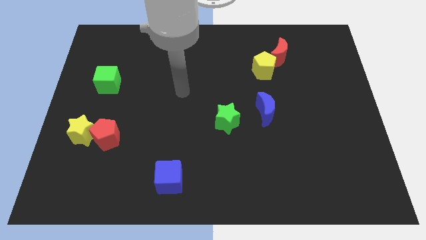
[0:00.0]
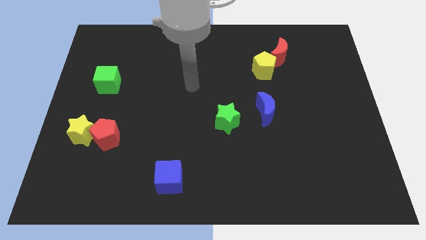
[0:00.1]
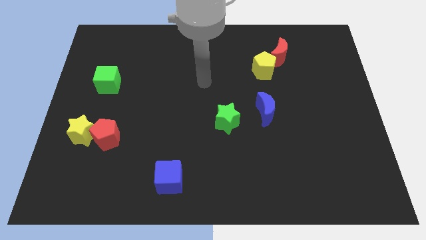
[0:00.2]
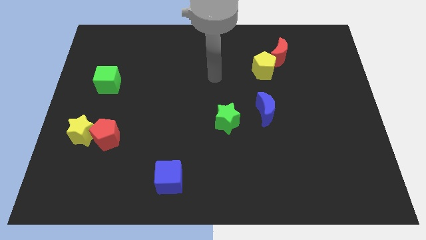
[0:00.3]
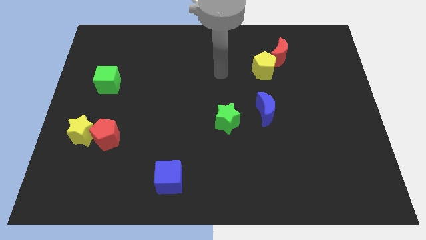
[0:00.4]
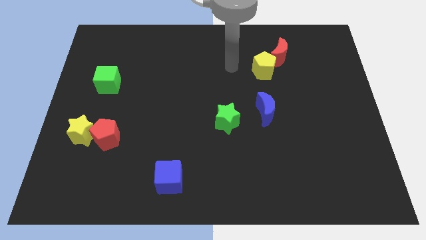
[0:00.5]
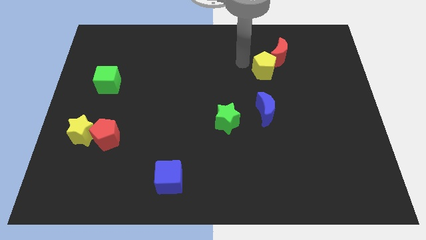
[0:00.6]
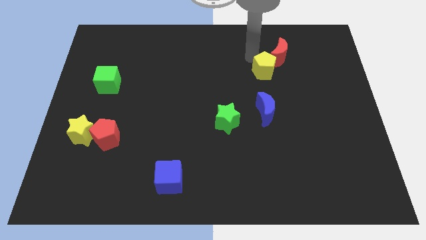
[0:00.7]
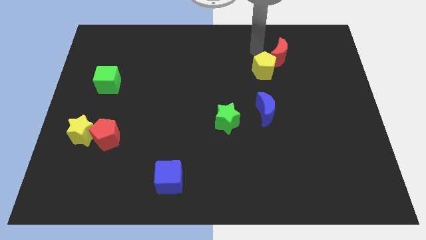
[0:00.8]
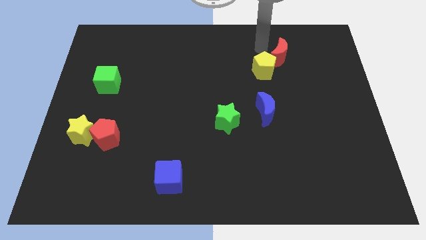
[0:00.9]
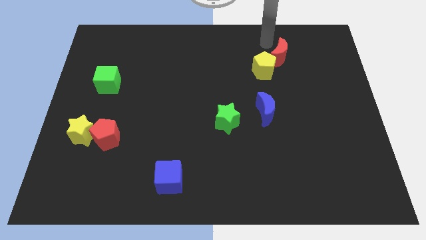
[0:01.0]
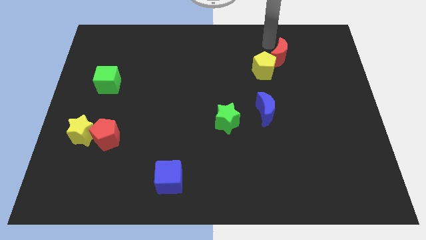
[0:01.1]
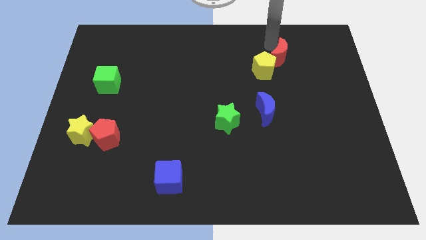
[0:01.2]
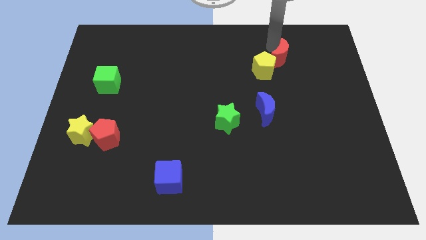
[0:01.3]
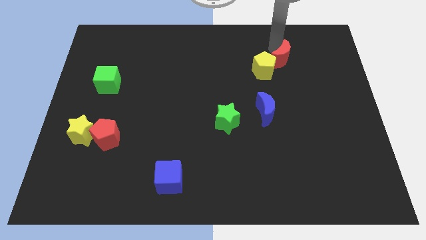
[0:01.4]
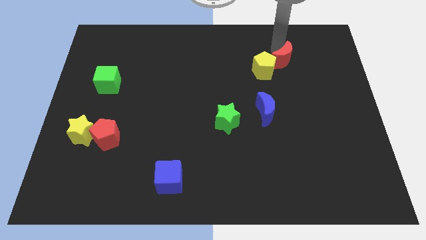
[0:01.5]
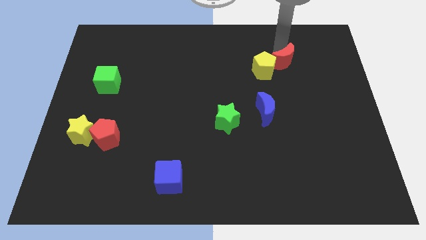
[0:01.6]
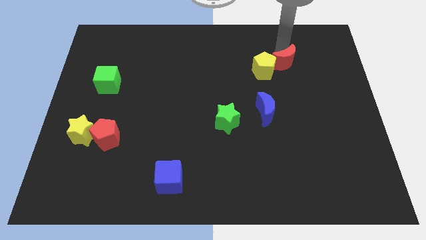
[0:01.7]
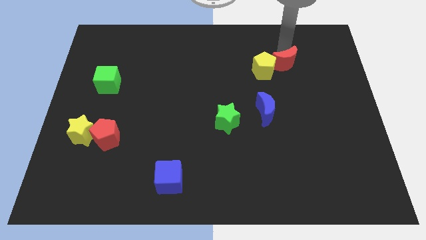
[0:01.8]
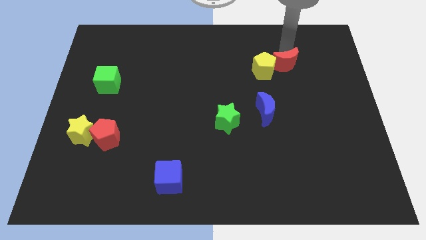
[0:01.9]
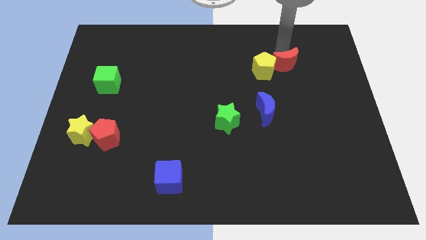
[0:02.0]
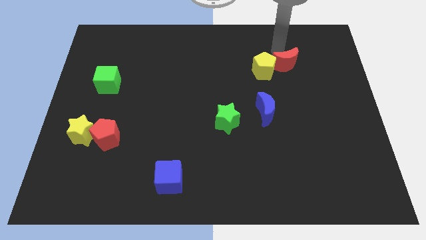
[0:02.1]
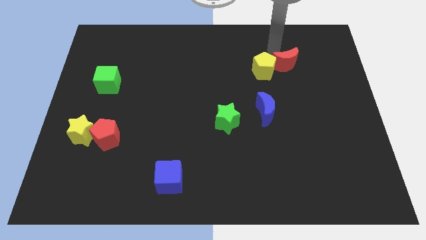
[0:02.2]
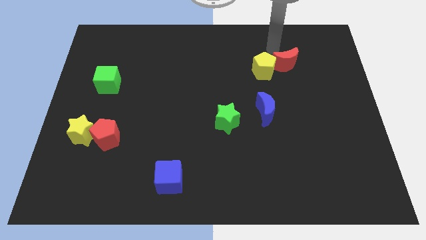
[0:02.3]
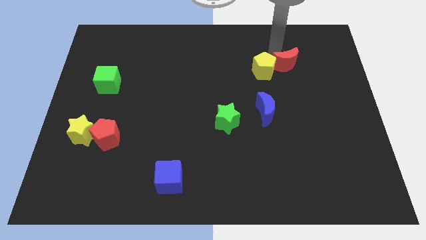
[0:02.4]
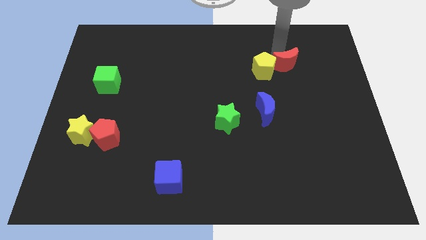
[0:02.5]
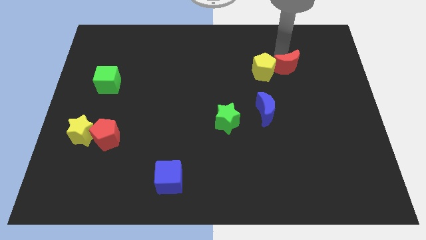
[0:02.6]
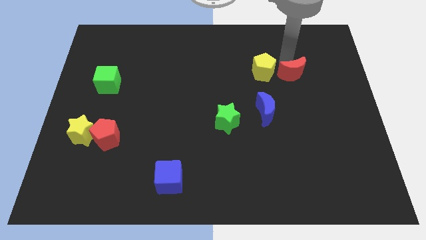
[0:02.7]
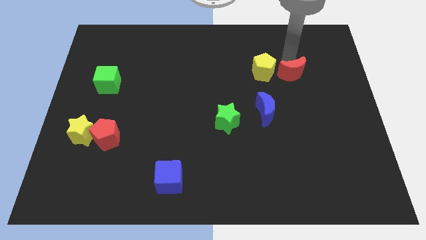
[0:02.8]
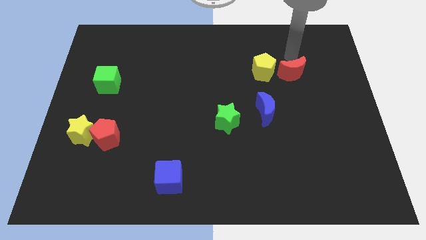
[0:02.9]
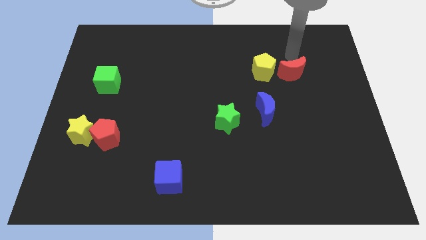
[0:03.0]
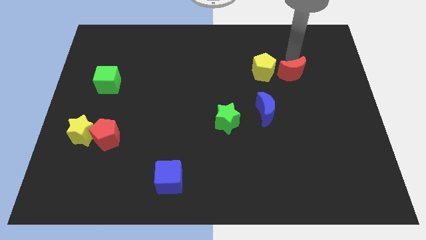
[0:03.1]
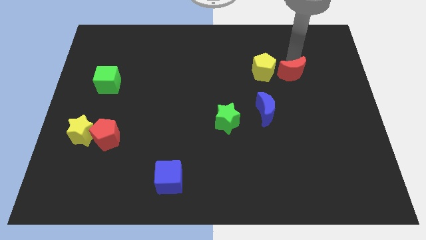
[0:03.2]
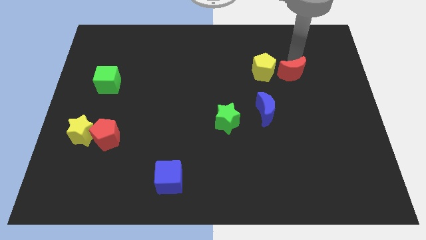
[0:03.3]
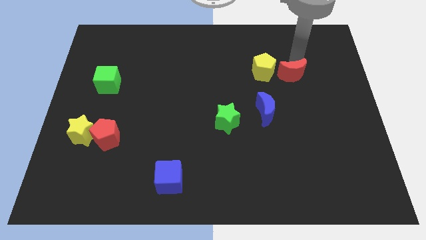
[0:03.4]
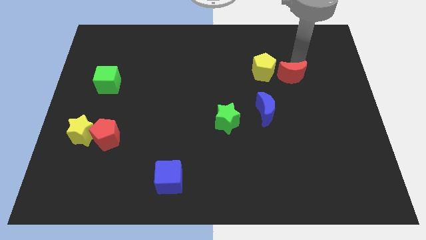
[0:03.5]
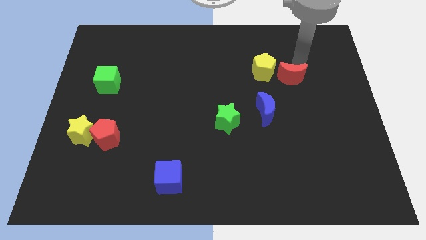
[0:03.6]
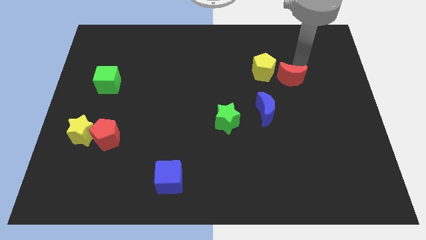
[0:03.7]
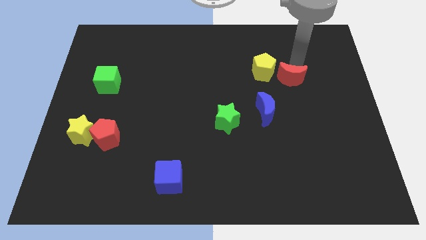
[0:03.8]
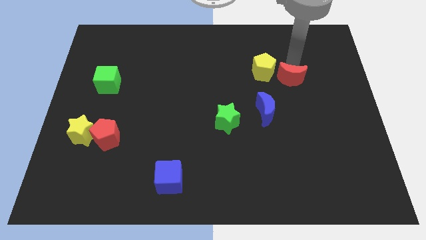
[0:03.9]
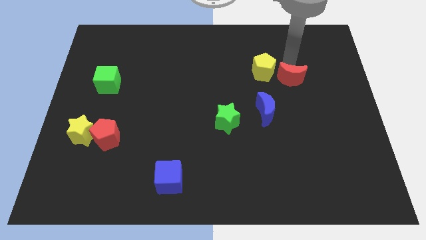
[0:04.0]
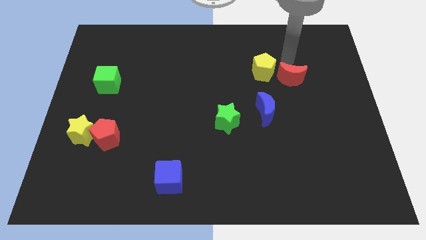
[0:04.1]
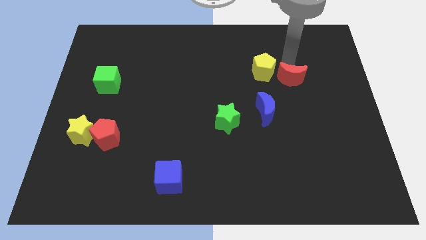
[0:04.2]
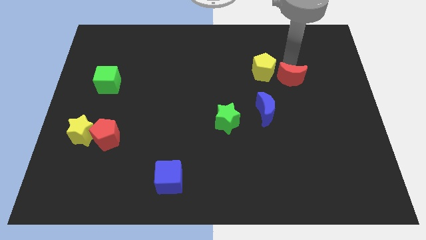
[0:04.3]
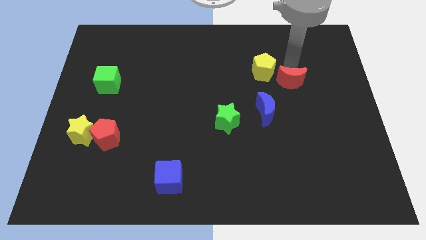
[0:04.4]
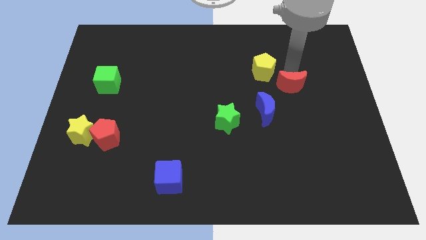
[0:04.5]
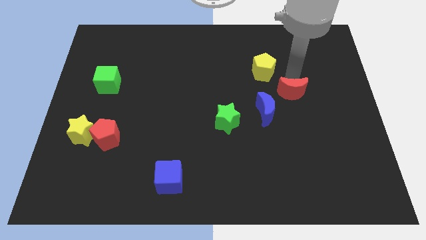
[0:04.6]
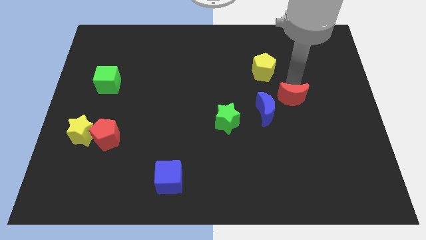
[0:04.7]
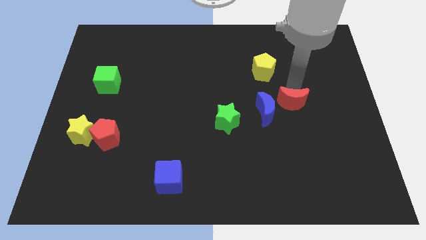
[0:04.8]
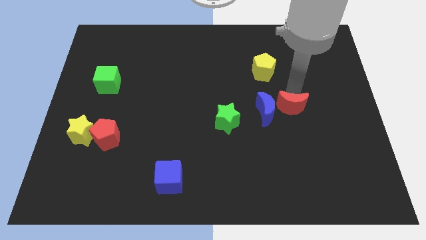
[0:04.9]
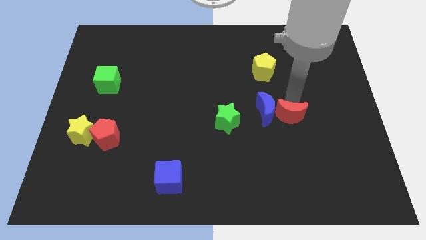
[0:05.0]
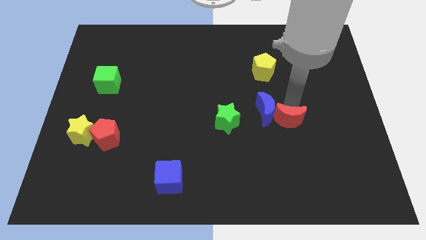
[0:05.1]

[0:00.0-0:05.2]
push the red moon downwards

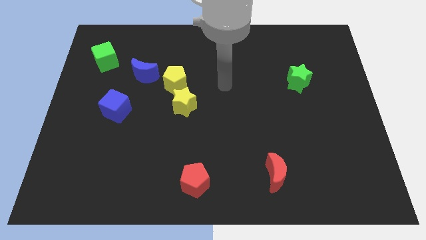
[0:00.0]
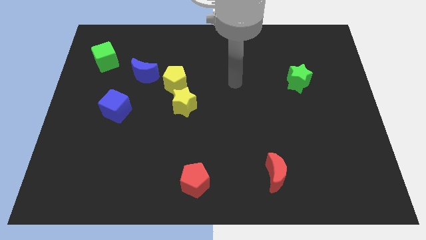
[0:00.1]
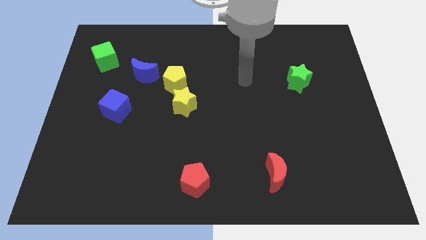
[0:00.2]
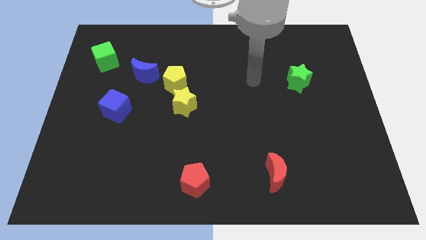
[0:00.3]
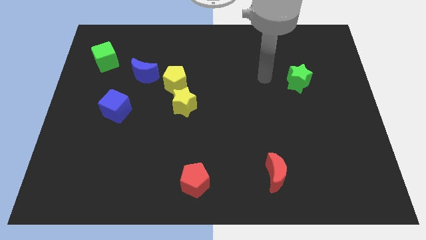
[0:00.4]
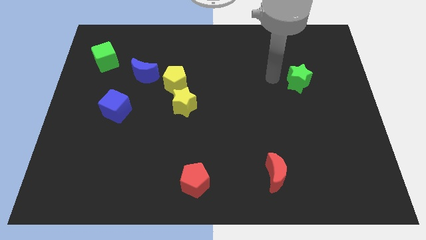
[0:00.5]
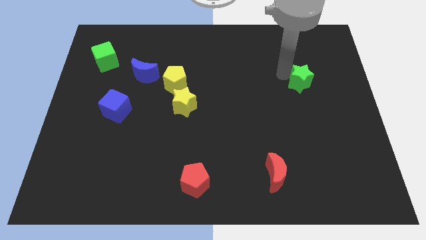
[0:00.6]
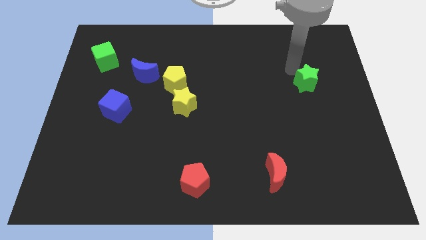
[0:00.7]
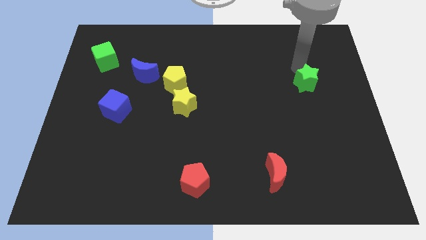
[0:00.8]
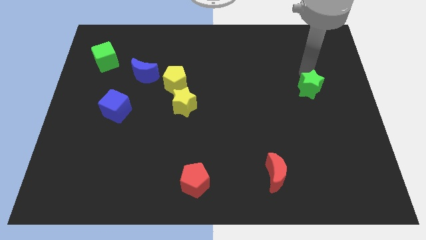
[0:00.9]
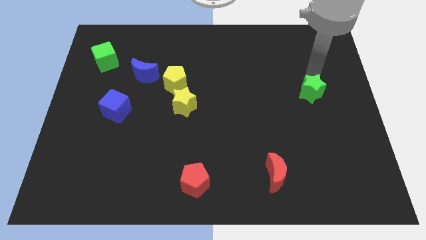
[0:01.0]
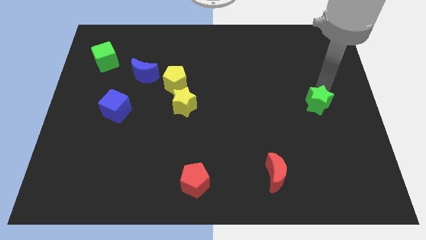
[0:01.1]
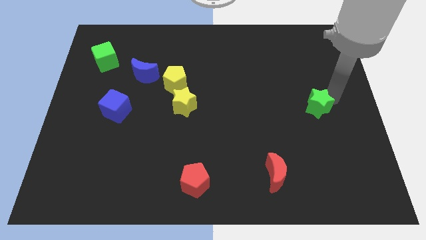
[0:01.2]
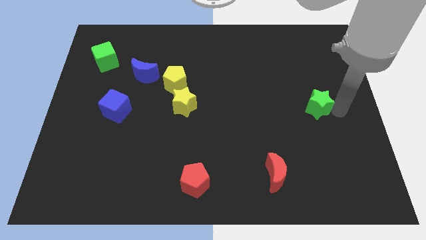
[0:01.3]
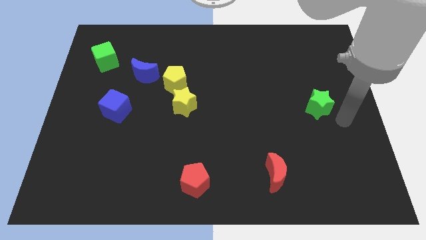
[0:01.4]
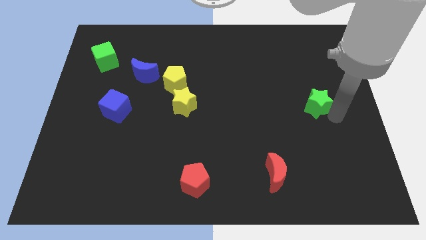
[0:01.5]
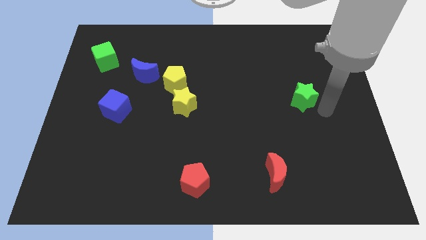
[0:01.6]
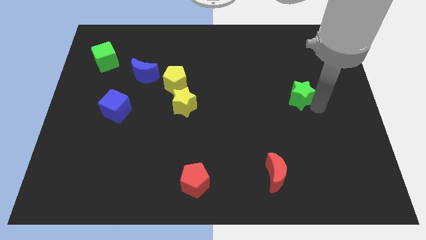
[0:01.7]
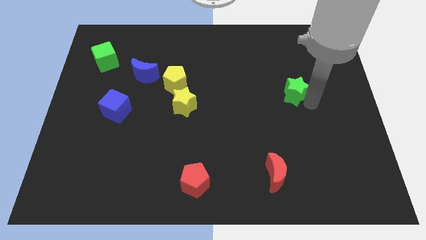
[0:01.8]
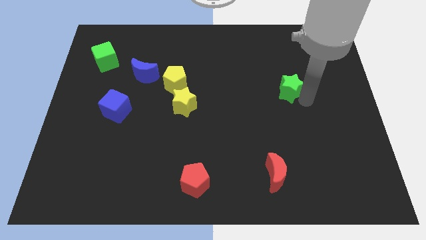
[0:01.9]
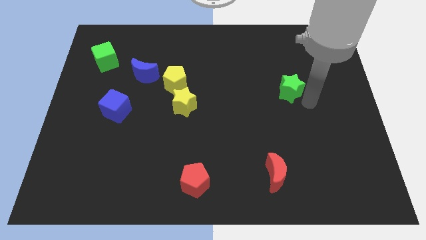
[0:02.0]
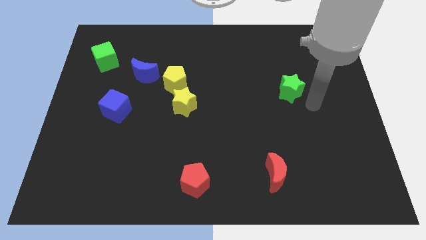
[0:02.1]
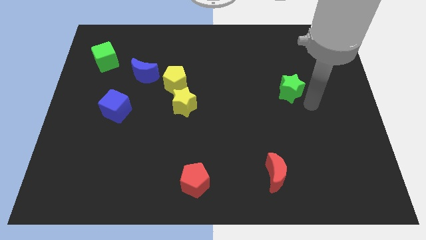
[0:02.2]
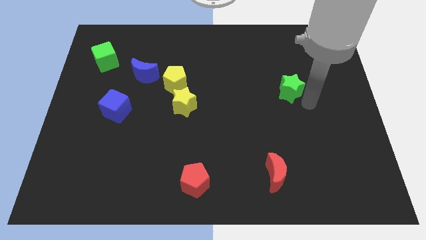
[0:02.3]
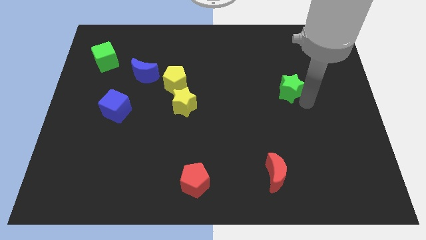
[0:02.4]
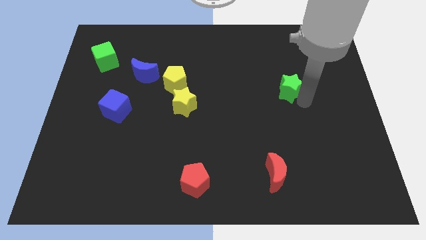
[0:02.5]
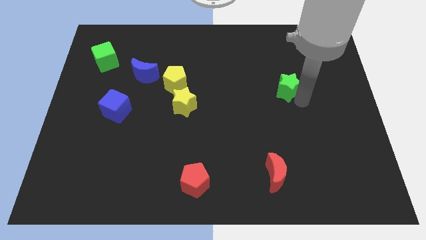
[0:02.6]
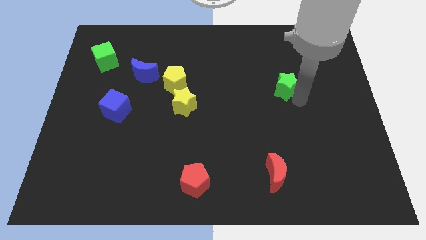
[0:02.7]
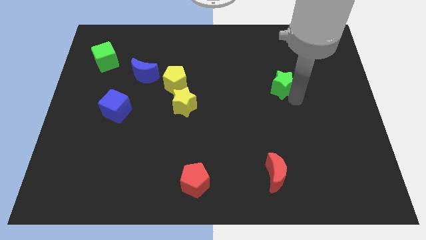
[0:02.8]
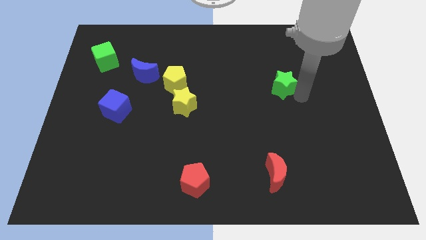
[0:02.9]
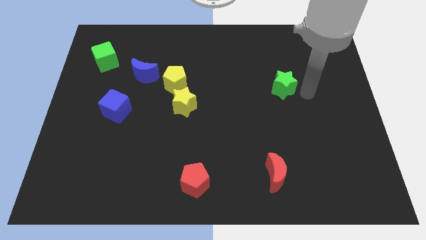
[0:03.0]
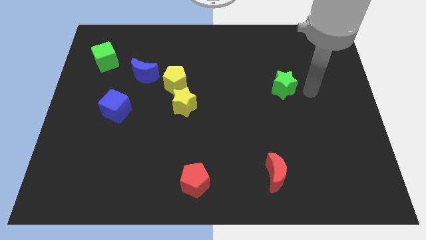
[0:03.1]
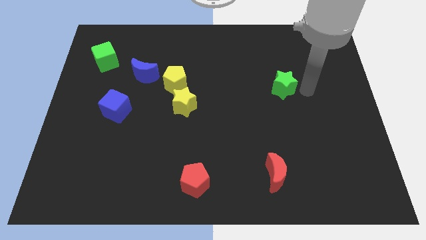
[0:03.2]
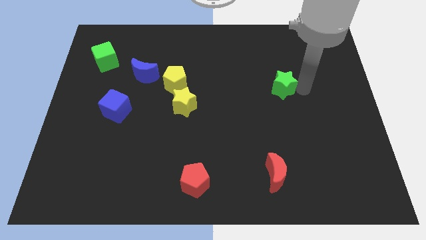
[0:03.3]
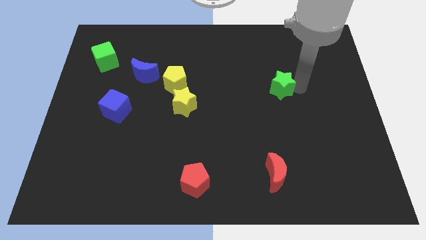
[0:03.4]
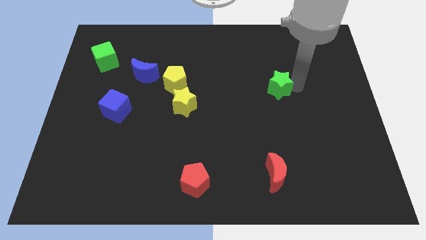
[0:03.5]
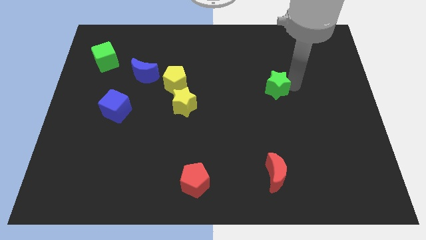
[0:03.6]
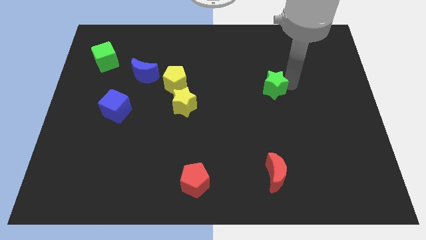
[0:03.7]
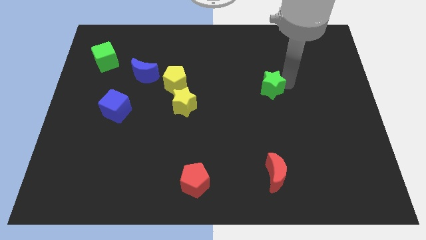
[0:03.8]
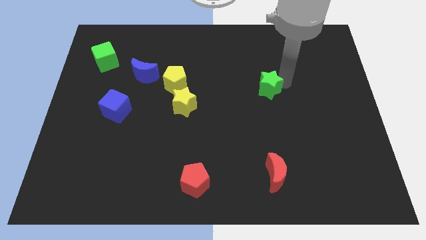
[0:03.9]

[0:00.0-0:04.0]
move the green star to the left a little
